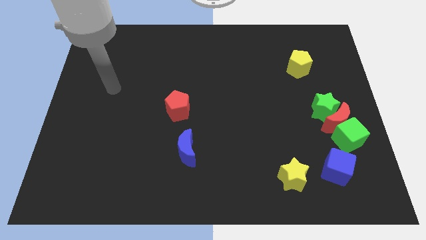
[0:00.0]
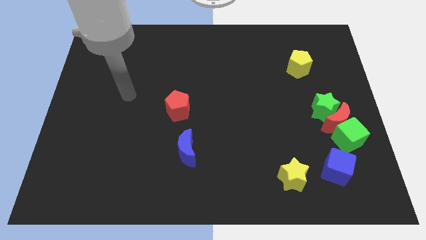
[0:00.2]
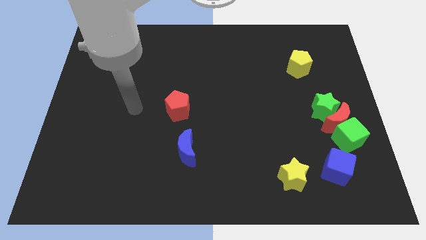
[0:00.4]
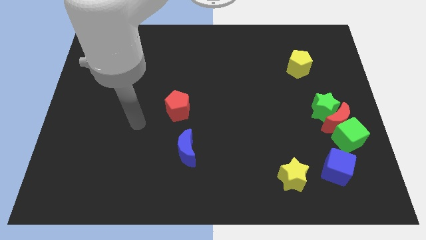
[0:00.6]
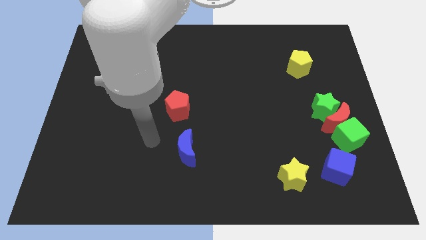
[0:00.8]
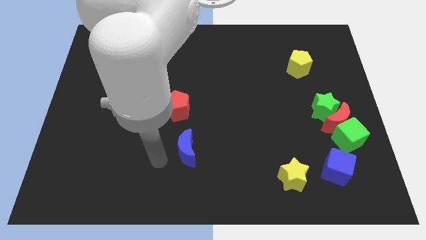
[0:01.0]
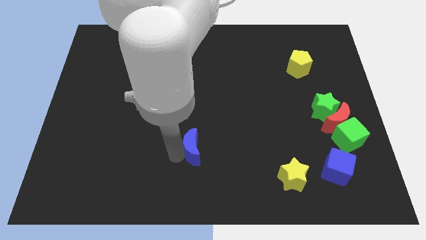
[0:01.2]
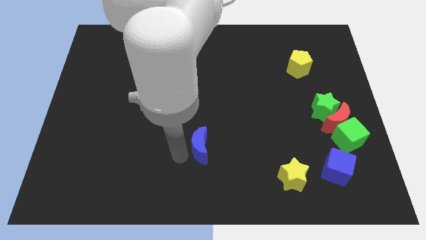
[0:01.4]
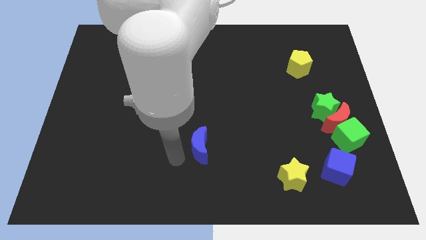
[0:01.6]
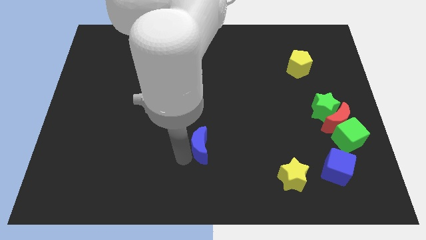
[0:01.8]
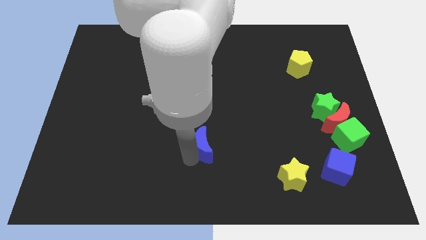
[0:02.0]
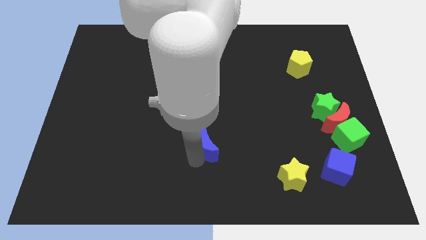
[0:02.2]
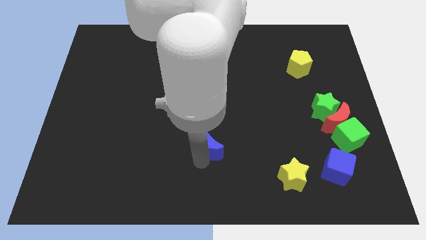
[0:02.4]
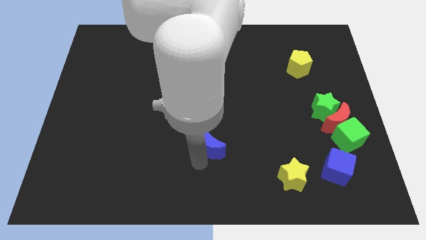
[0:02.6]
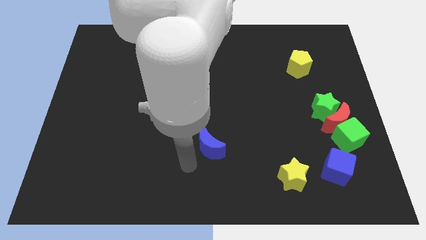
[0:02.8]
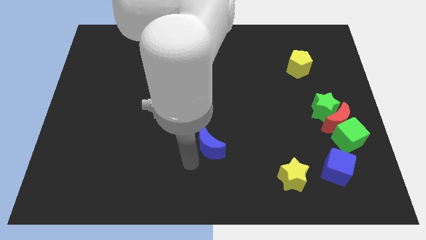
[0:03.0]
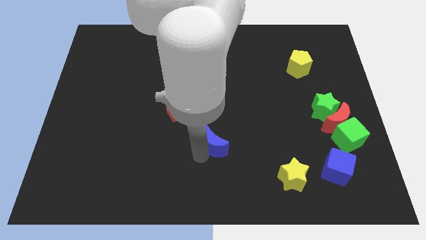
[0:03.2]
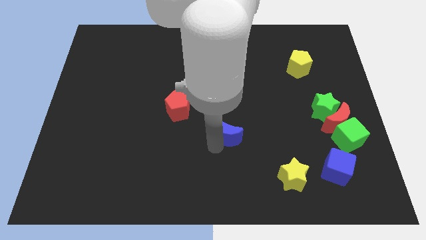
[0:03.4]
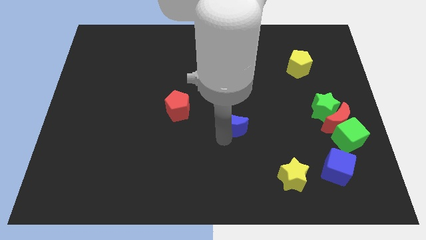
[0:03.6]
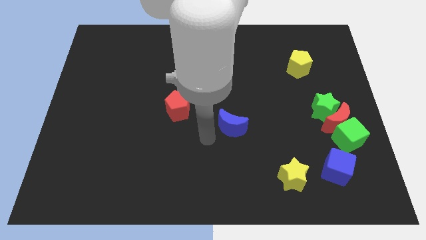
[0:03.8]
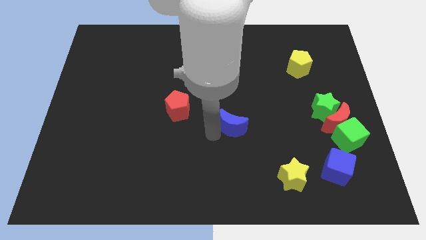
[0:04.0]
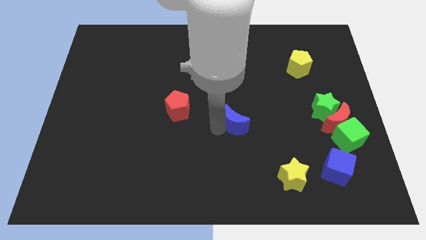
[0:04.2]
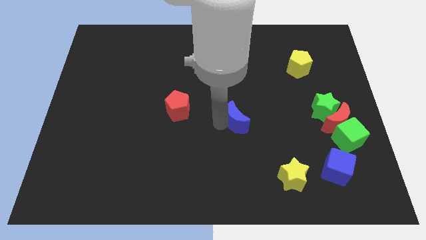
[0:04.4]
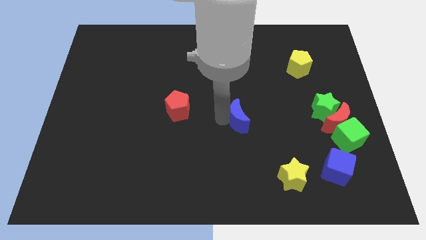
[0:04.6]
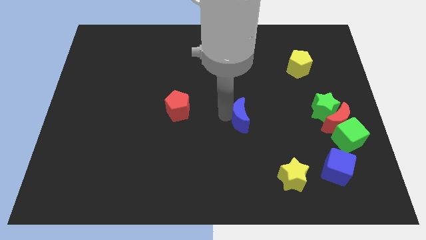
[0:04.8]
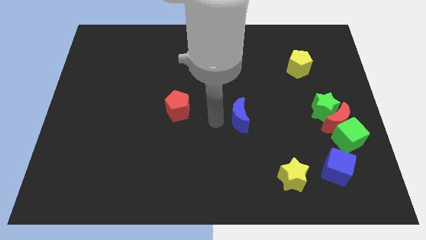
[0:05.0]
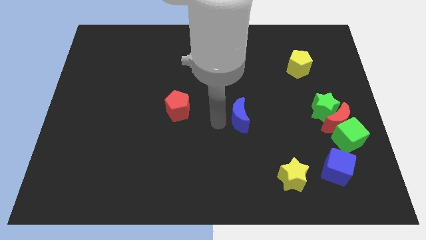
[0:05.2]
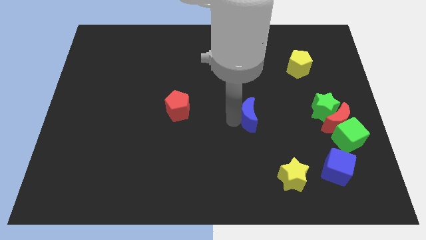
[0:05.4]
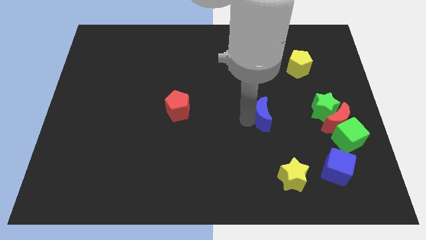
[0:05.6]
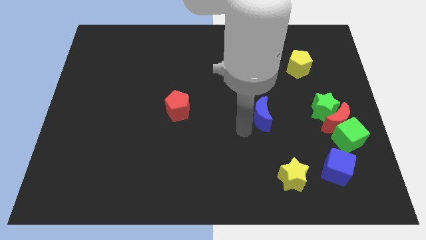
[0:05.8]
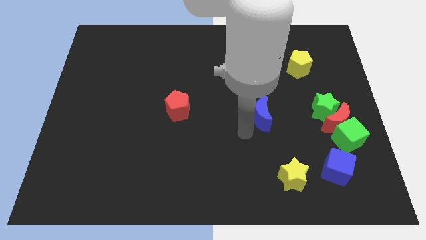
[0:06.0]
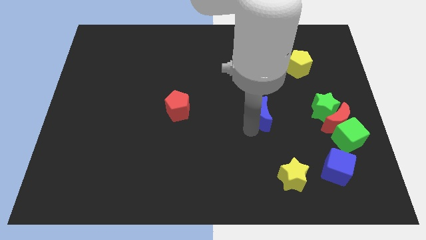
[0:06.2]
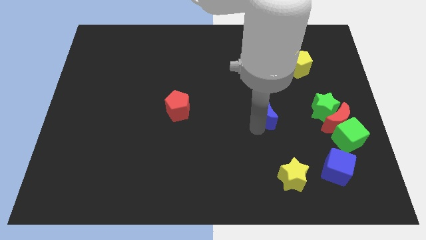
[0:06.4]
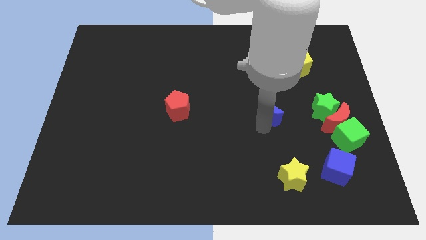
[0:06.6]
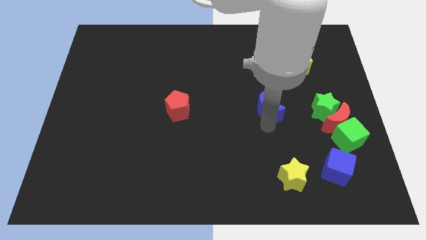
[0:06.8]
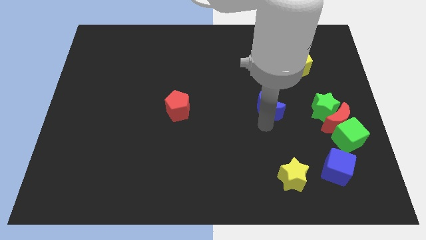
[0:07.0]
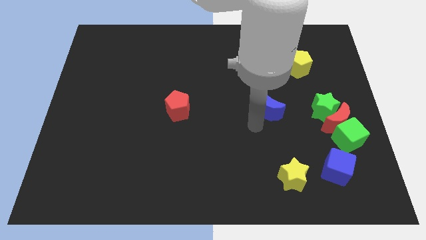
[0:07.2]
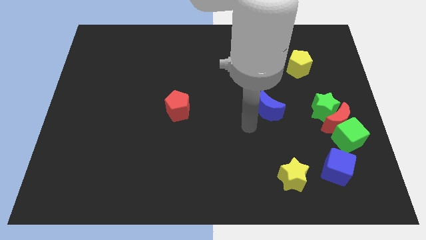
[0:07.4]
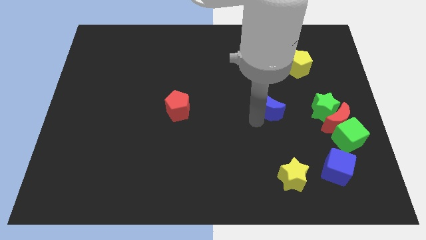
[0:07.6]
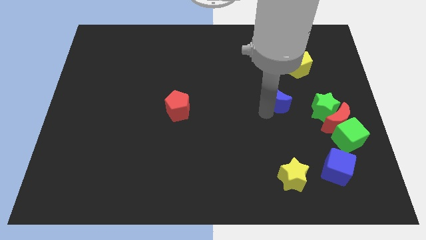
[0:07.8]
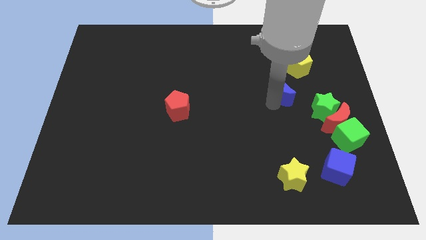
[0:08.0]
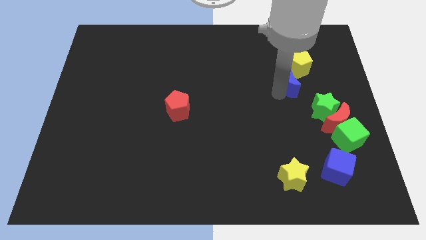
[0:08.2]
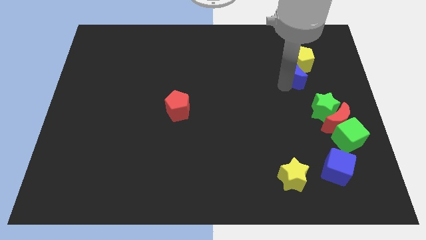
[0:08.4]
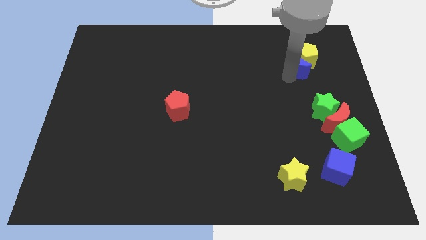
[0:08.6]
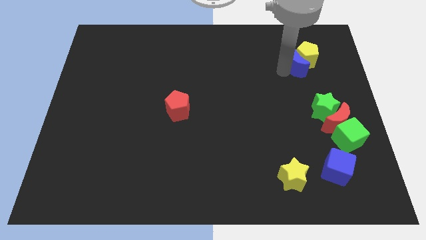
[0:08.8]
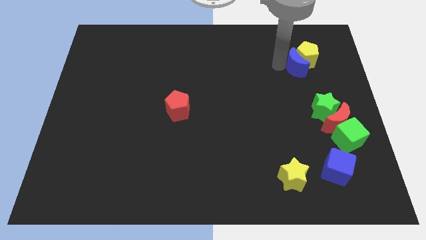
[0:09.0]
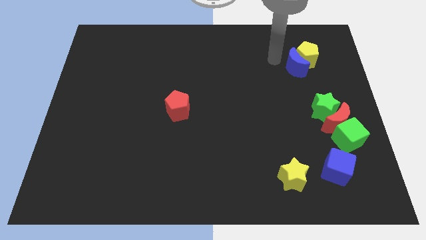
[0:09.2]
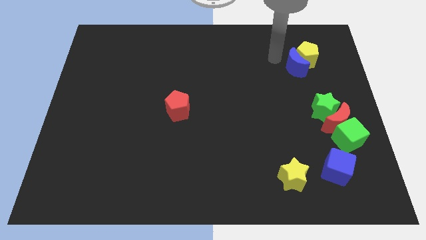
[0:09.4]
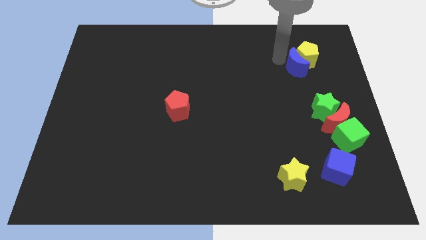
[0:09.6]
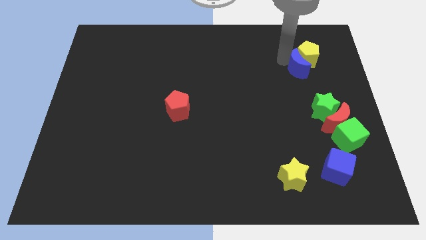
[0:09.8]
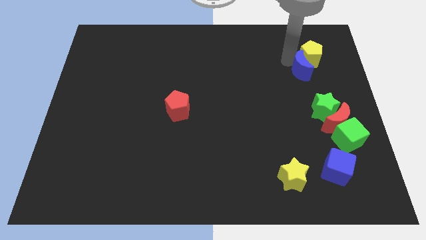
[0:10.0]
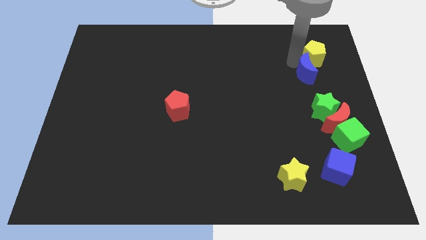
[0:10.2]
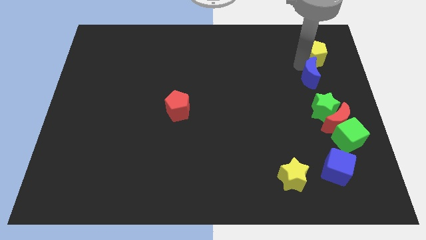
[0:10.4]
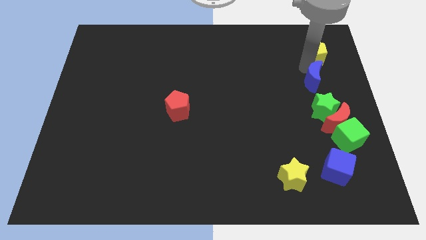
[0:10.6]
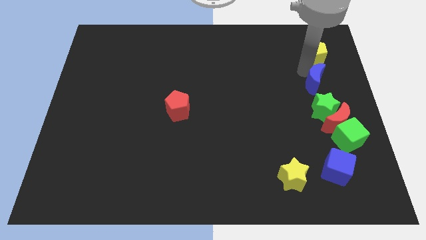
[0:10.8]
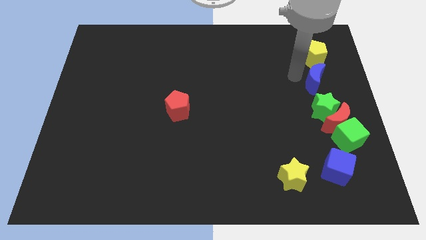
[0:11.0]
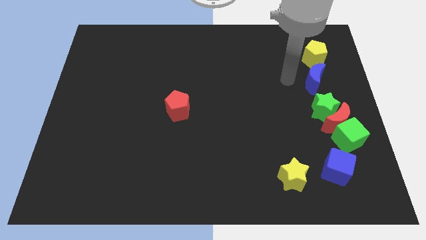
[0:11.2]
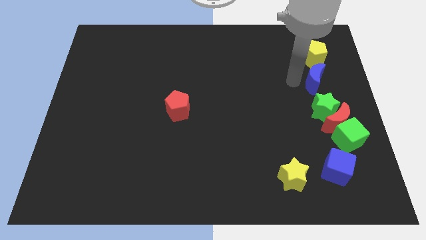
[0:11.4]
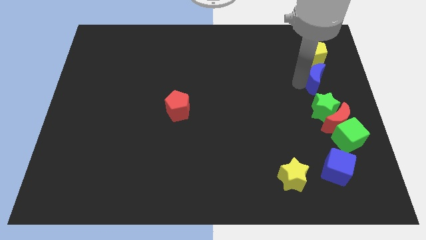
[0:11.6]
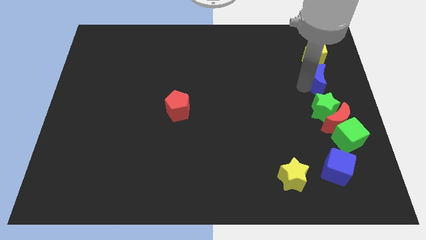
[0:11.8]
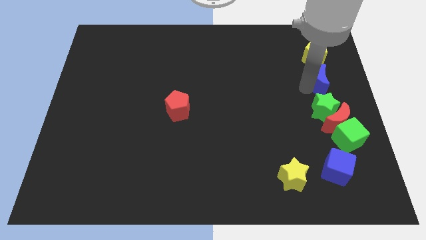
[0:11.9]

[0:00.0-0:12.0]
move the blue moon to the right side
